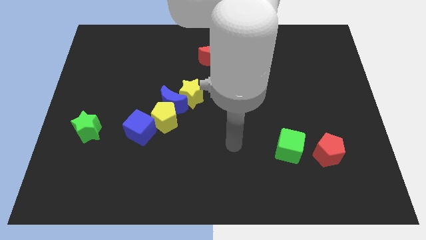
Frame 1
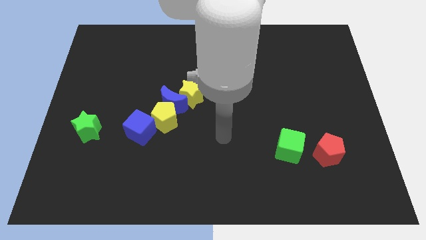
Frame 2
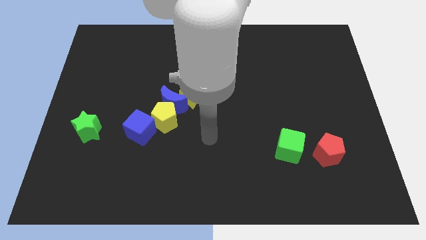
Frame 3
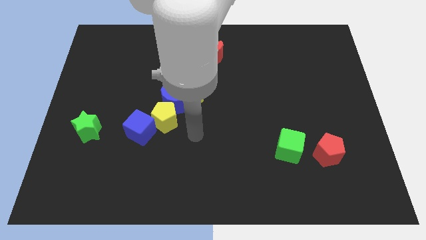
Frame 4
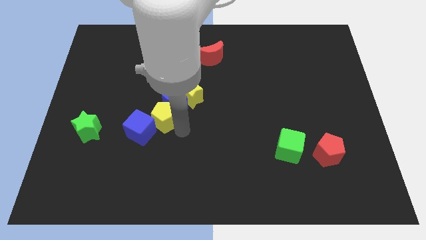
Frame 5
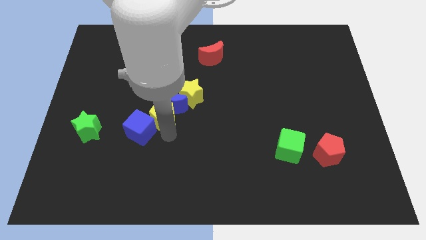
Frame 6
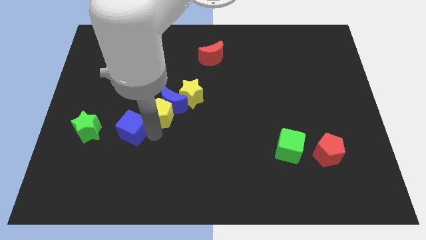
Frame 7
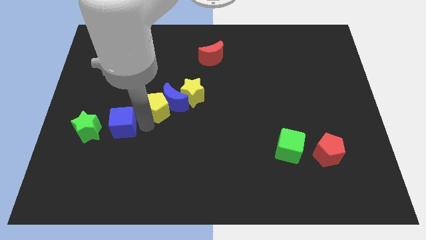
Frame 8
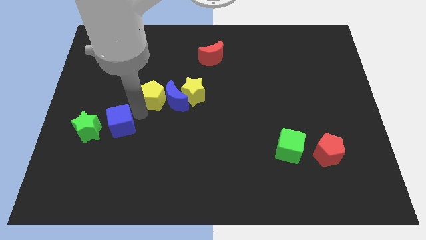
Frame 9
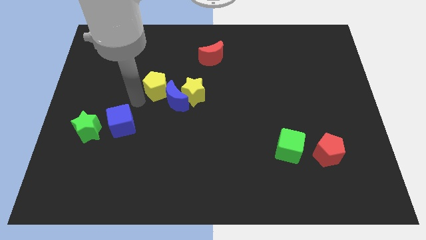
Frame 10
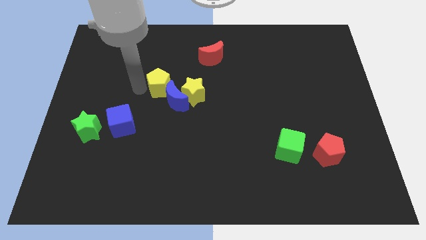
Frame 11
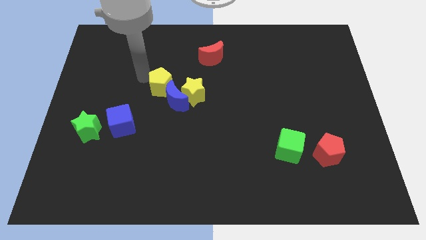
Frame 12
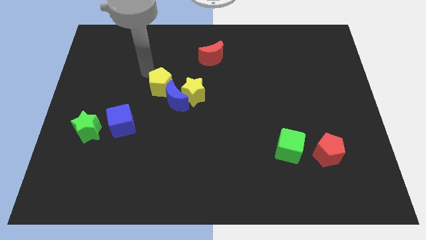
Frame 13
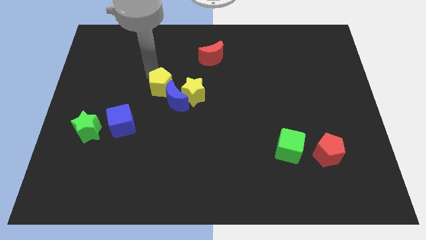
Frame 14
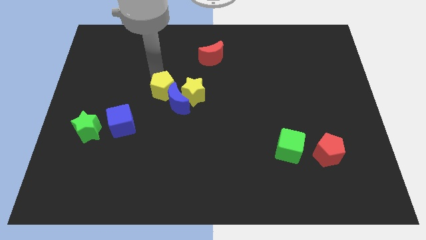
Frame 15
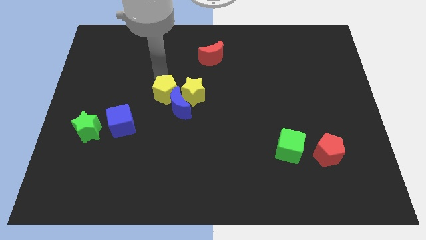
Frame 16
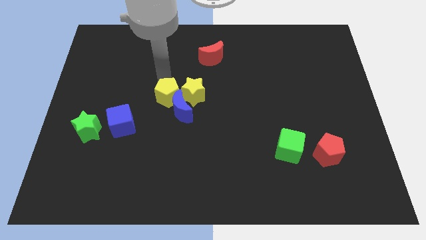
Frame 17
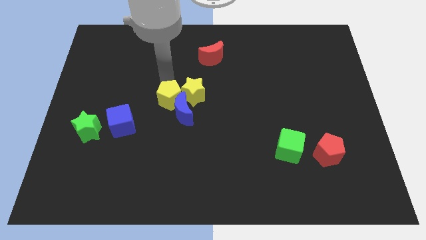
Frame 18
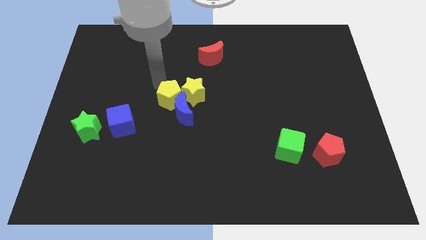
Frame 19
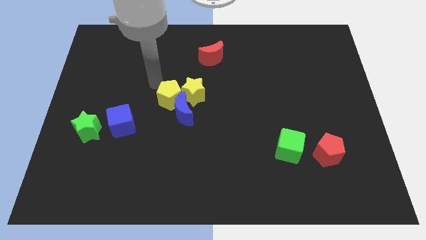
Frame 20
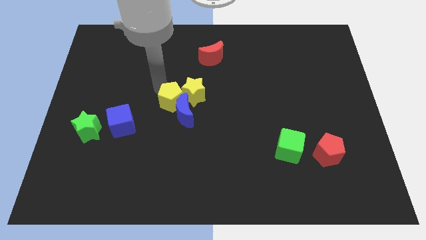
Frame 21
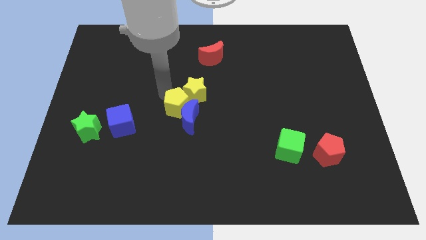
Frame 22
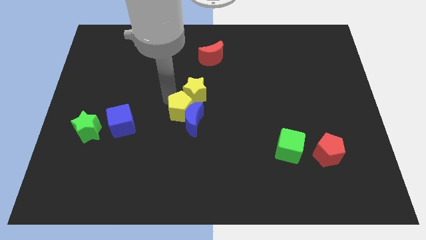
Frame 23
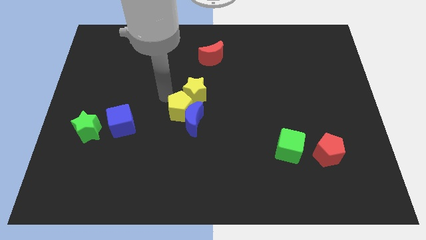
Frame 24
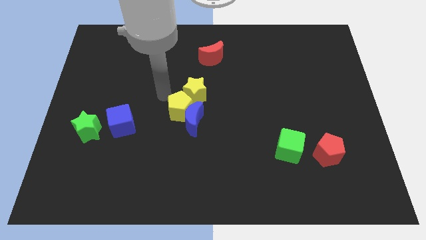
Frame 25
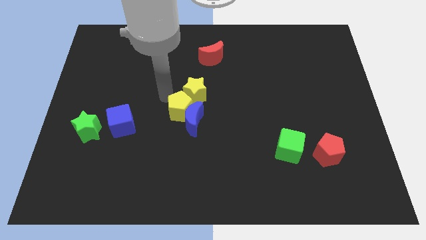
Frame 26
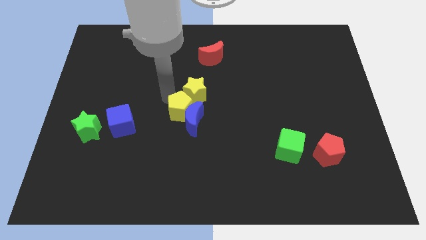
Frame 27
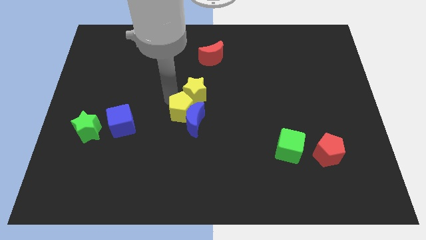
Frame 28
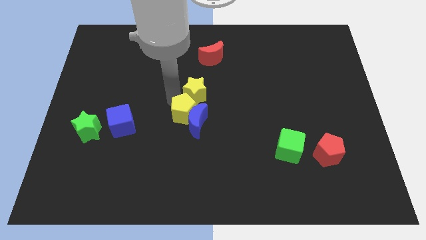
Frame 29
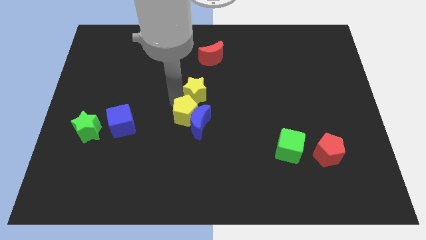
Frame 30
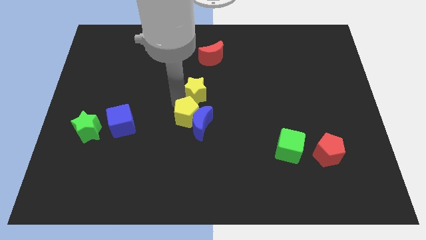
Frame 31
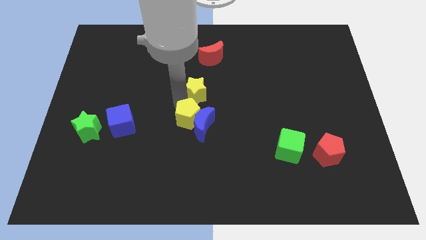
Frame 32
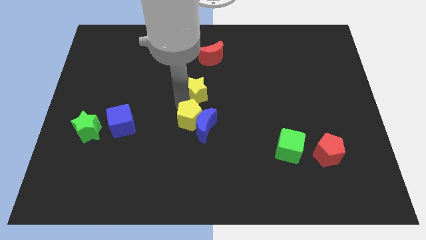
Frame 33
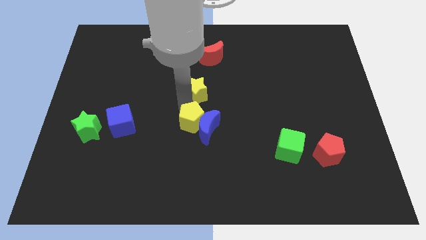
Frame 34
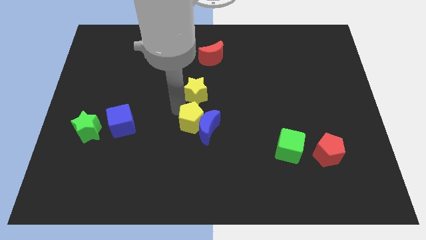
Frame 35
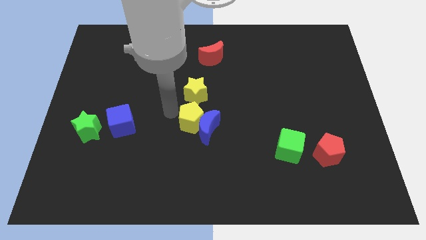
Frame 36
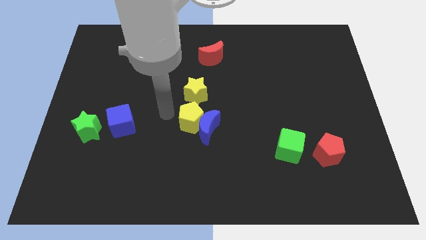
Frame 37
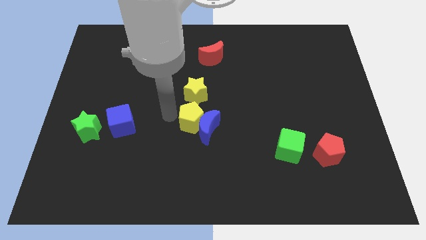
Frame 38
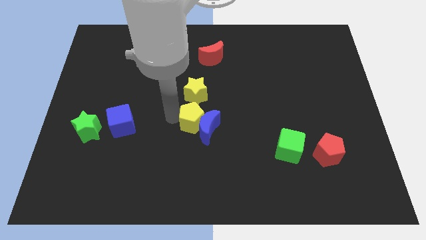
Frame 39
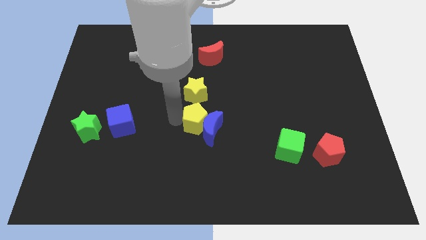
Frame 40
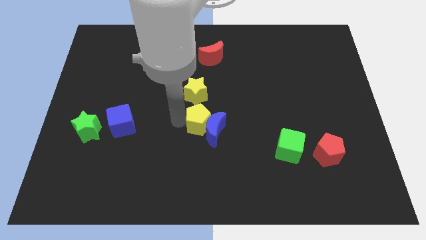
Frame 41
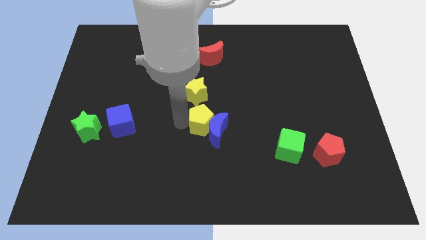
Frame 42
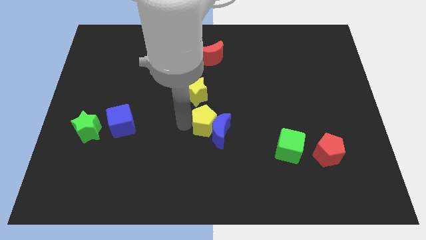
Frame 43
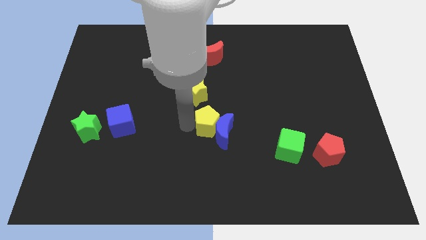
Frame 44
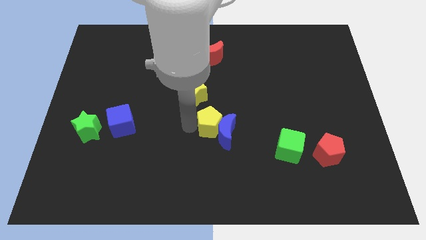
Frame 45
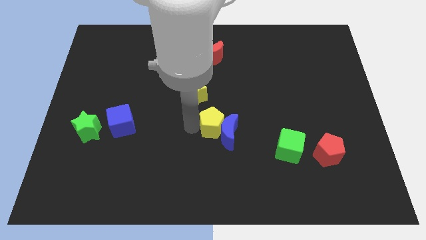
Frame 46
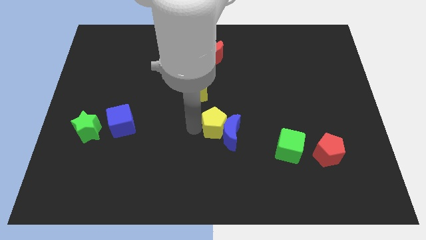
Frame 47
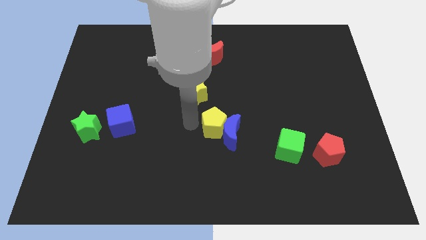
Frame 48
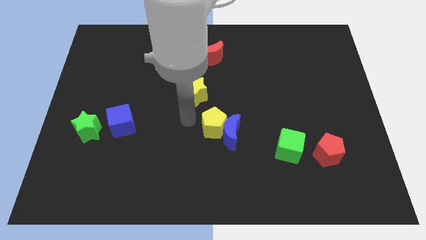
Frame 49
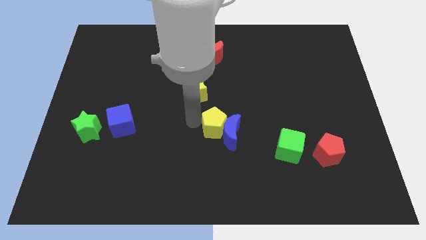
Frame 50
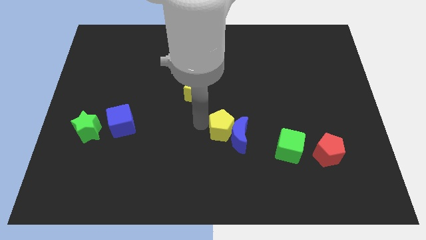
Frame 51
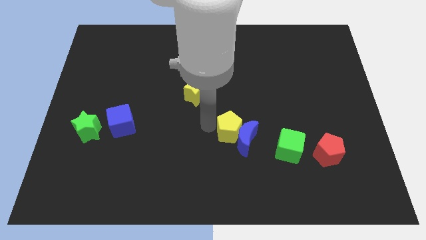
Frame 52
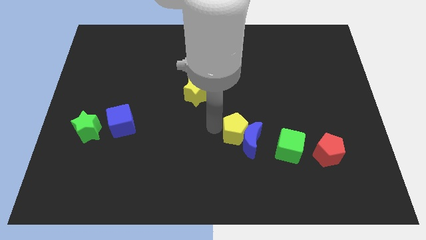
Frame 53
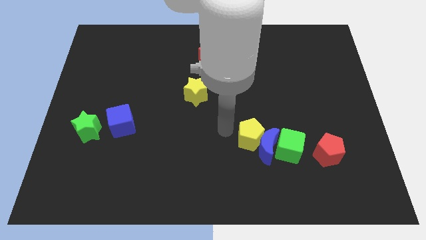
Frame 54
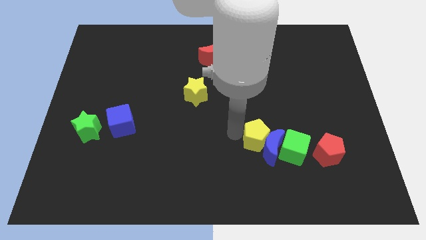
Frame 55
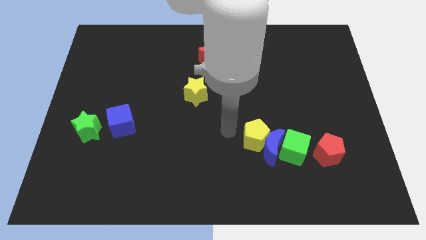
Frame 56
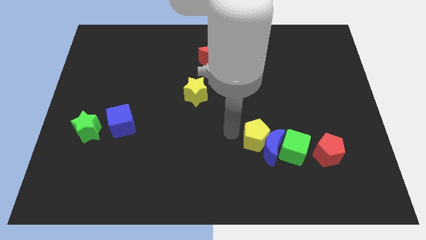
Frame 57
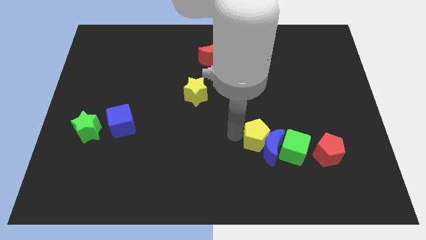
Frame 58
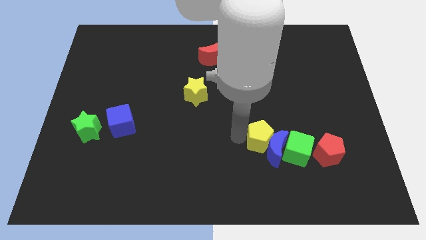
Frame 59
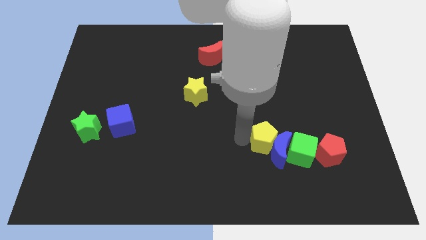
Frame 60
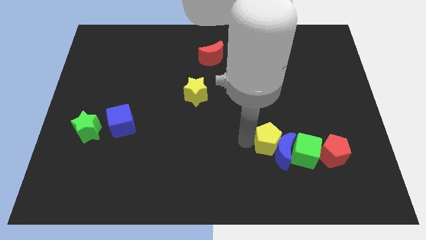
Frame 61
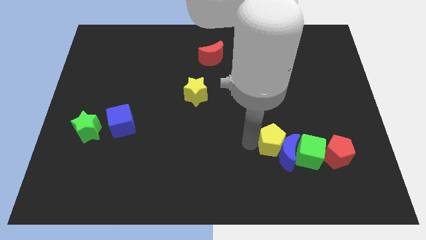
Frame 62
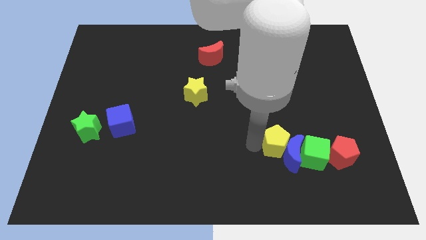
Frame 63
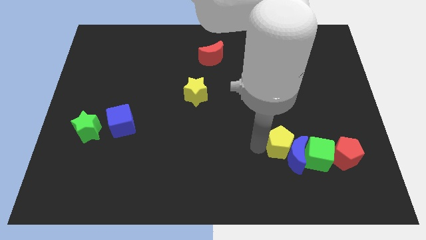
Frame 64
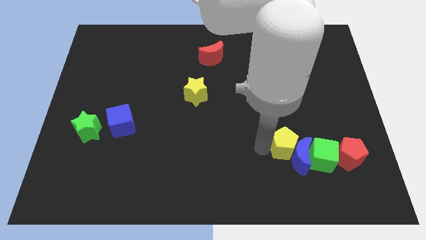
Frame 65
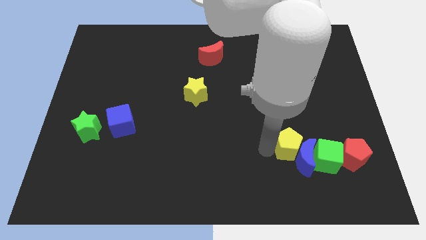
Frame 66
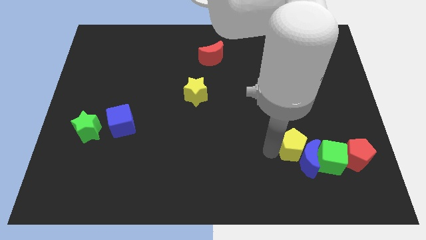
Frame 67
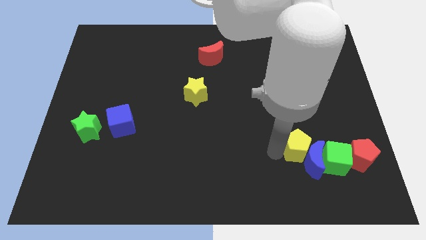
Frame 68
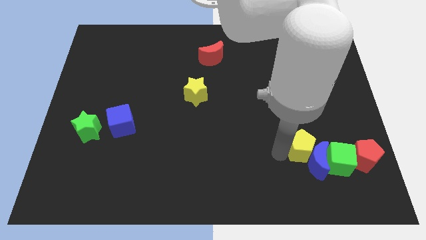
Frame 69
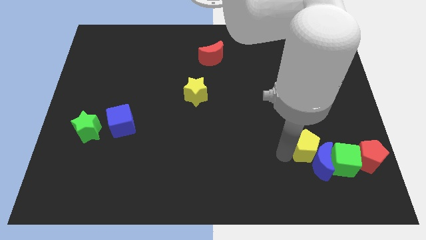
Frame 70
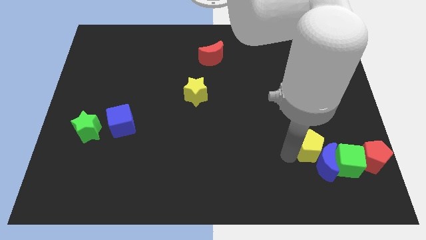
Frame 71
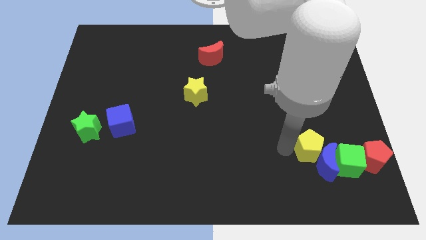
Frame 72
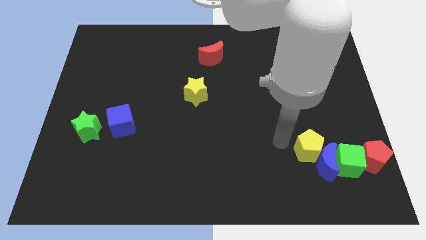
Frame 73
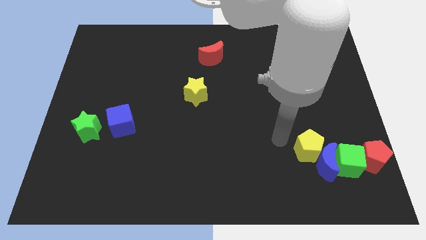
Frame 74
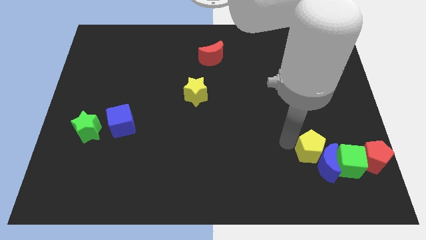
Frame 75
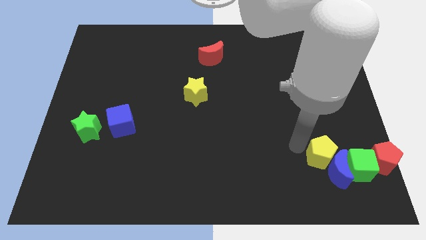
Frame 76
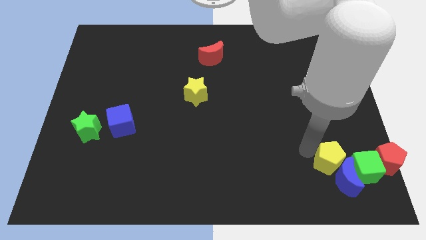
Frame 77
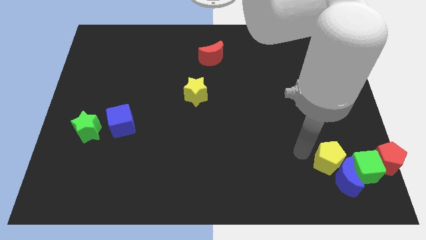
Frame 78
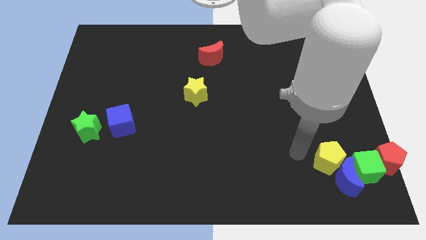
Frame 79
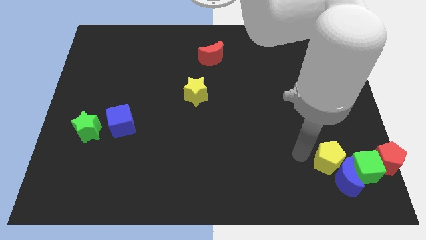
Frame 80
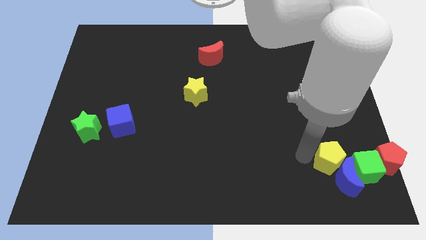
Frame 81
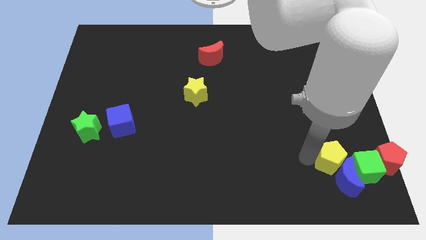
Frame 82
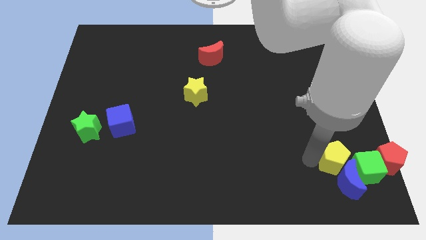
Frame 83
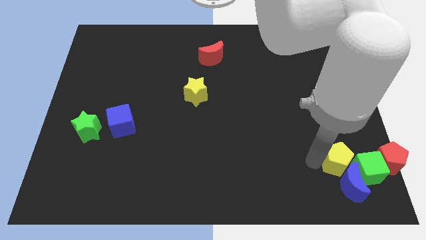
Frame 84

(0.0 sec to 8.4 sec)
push the yellow pentagon close to the green cube
